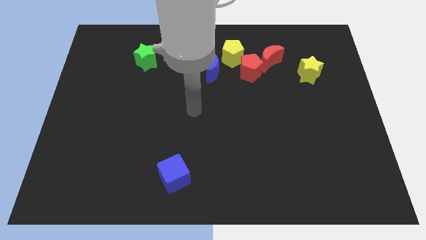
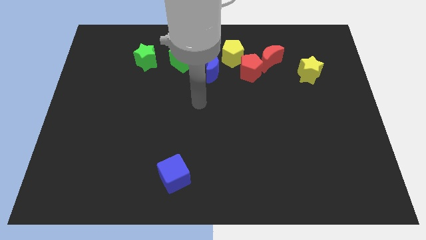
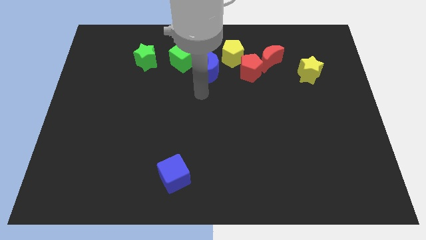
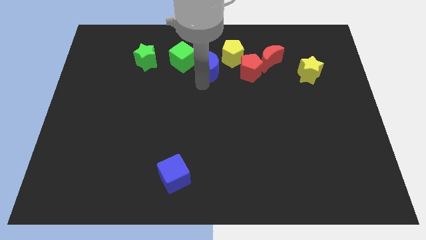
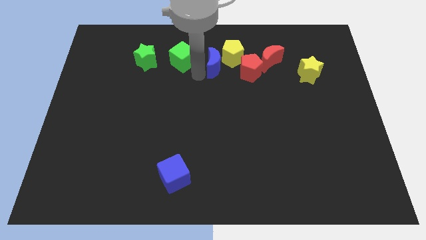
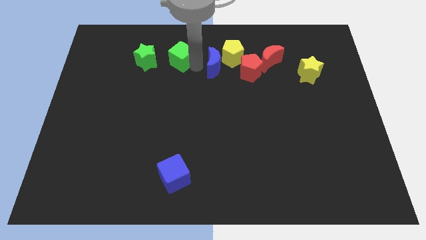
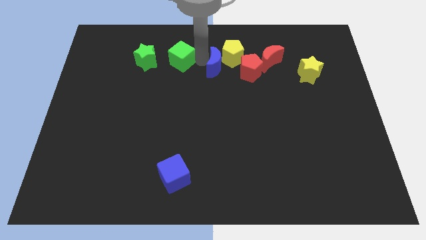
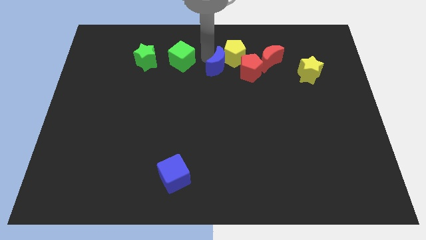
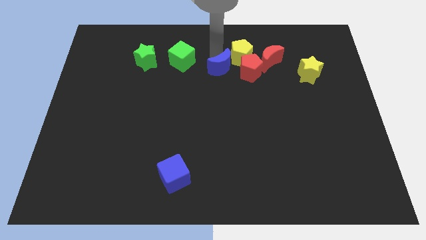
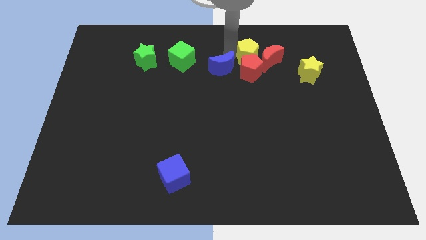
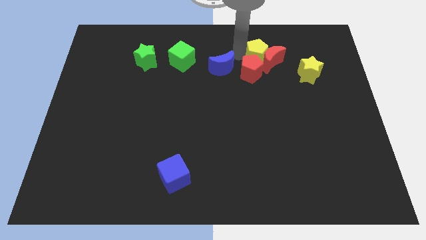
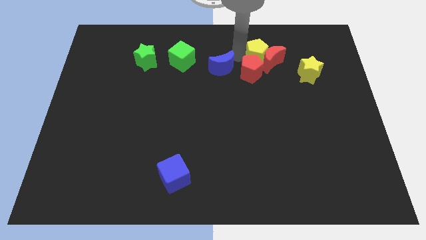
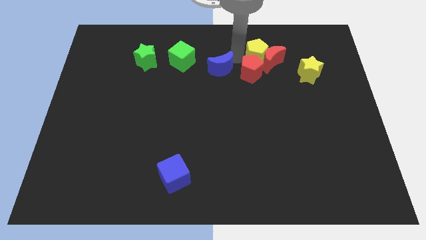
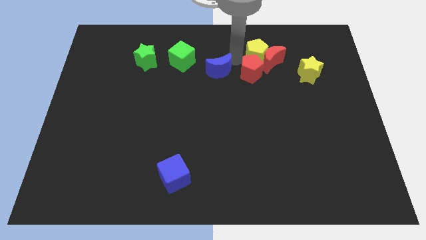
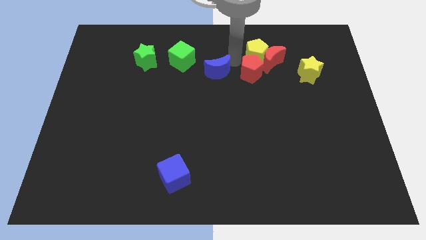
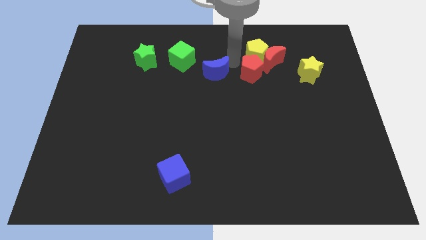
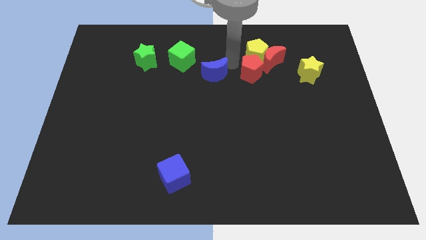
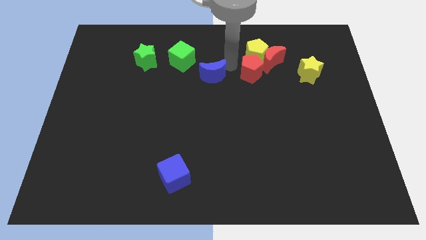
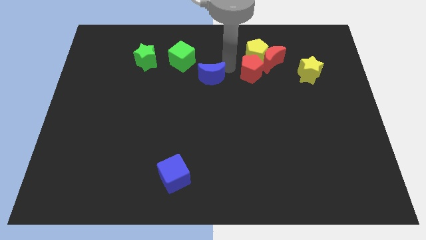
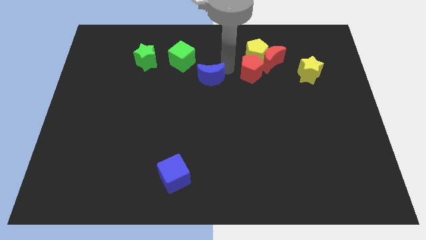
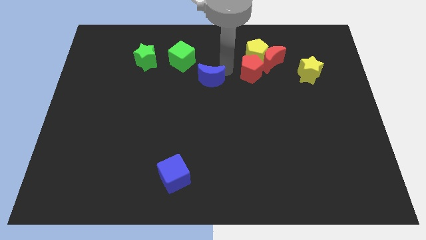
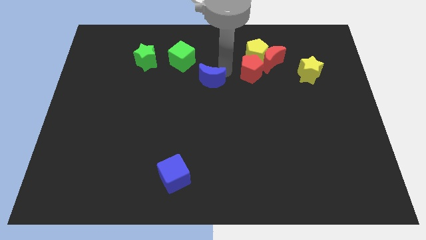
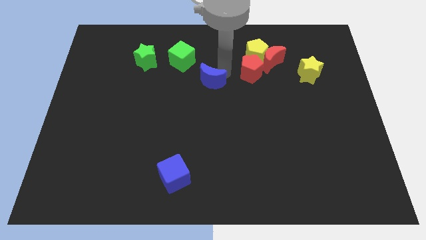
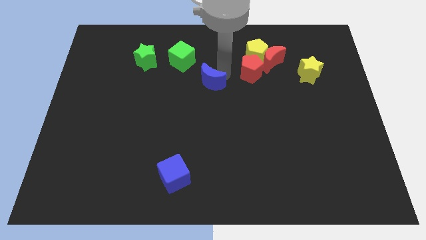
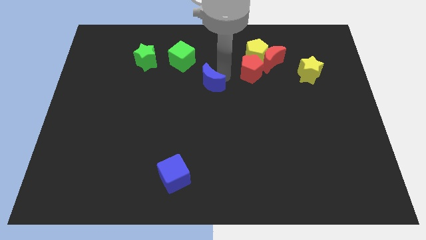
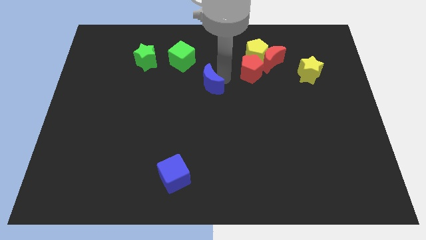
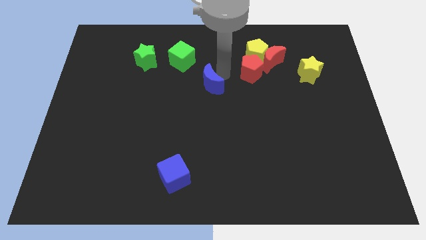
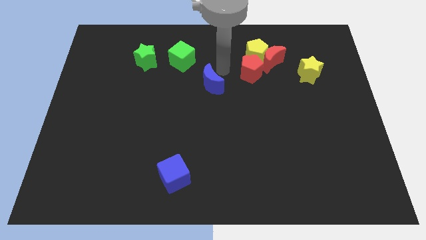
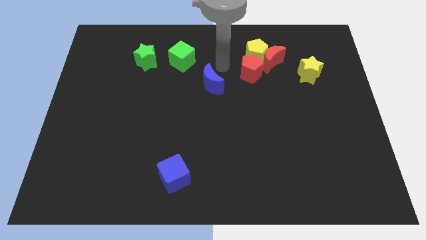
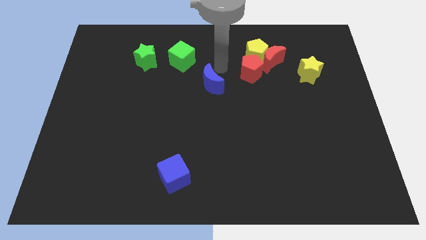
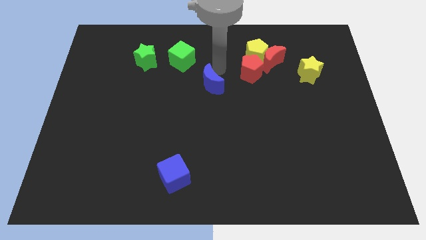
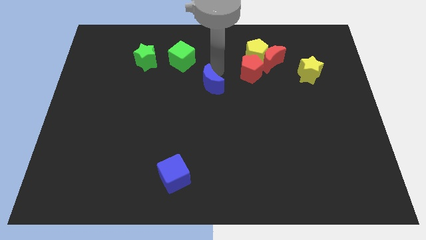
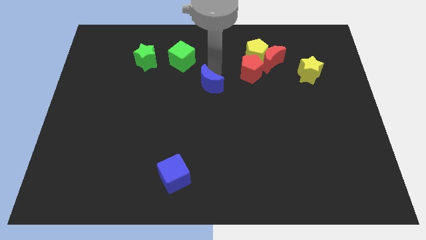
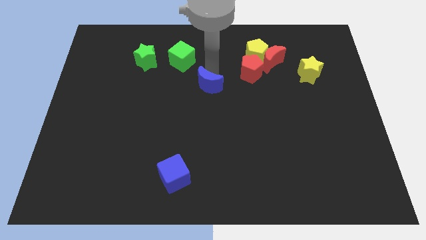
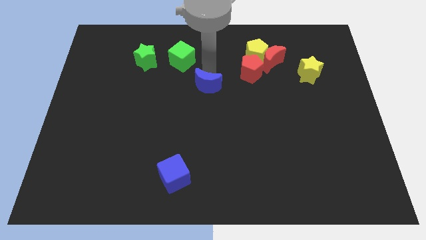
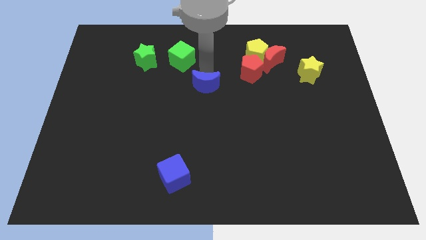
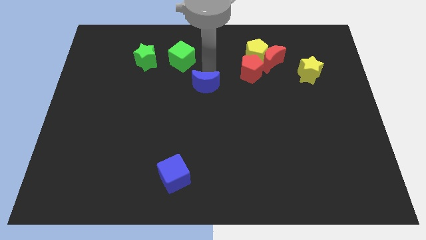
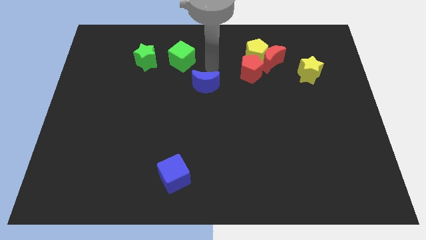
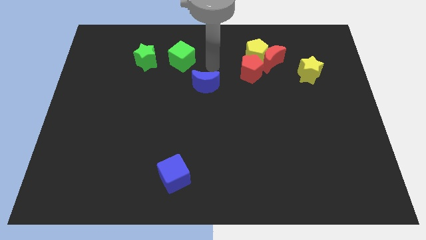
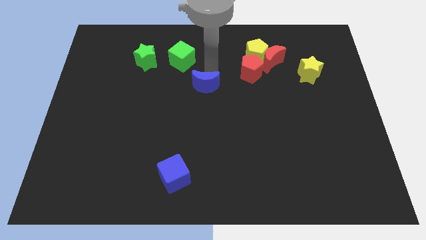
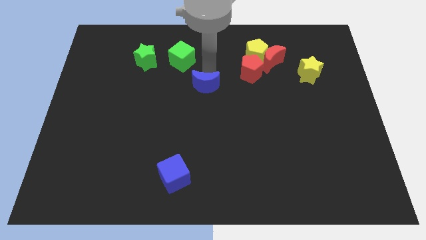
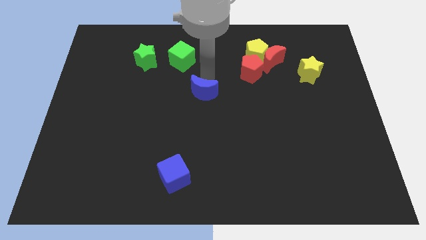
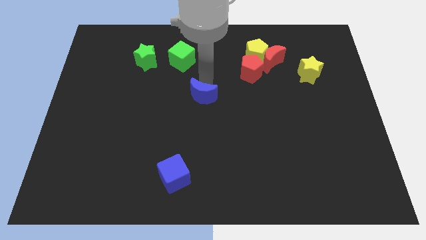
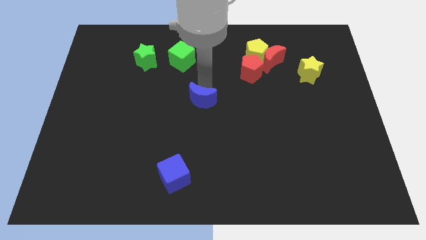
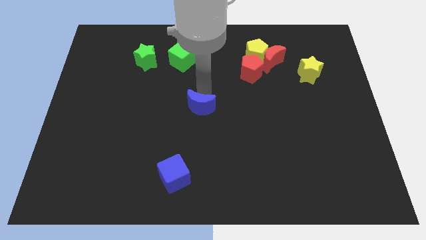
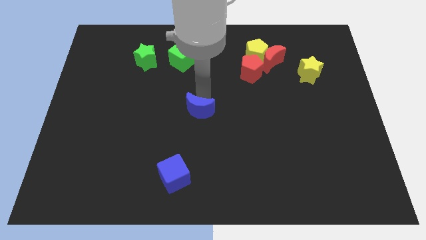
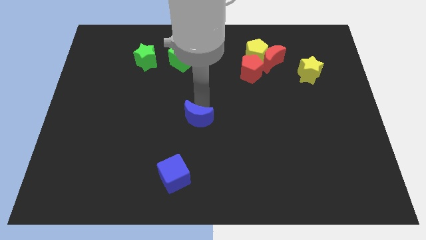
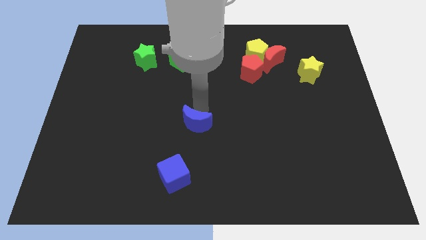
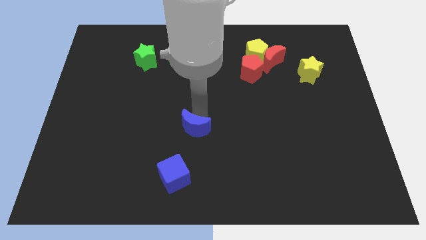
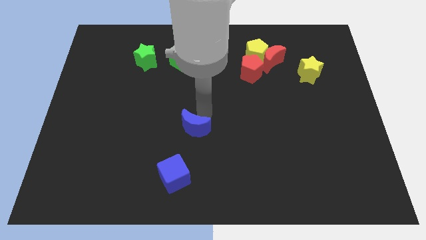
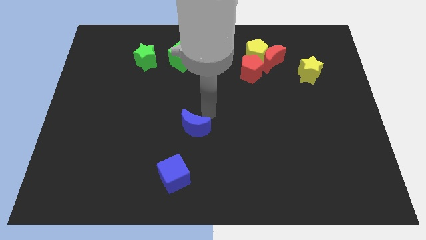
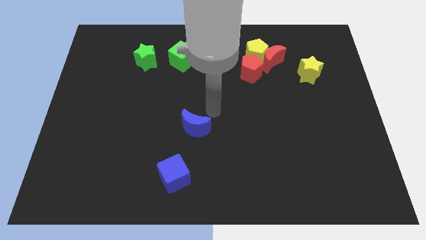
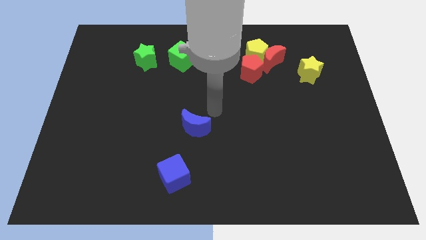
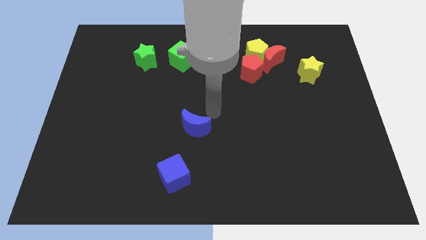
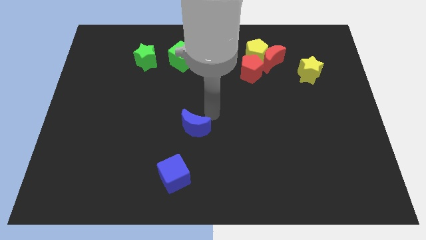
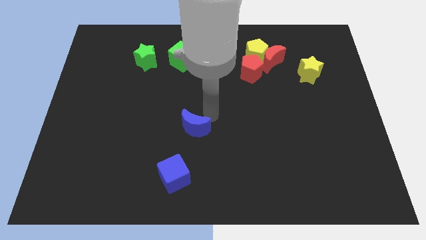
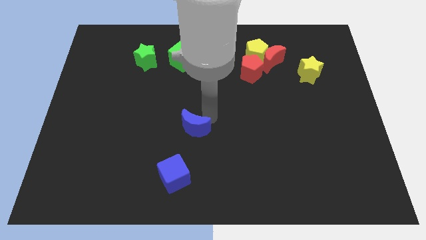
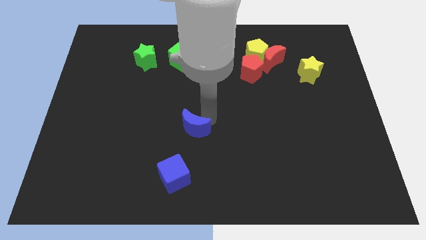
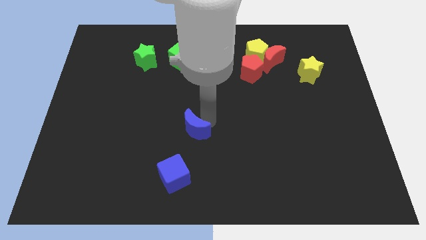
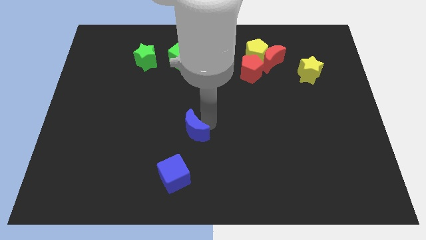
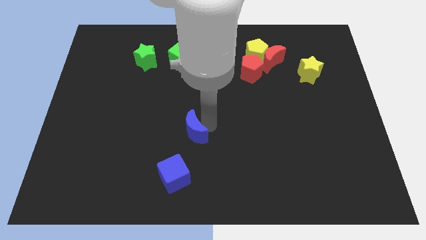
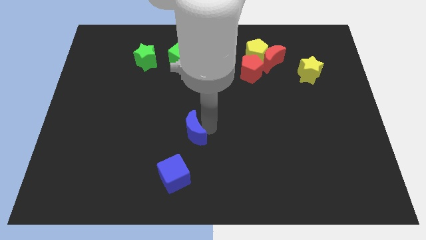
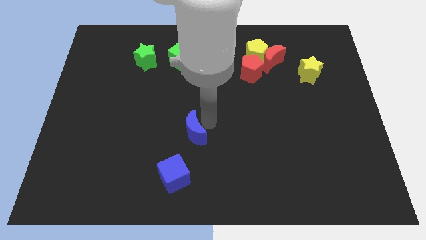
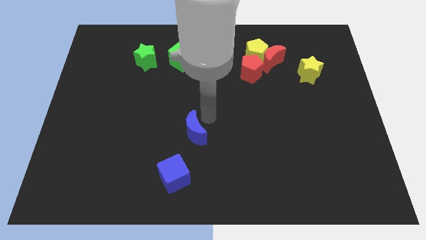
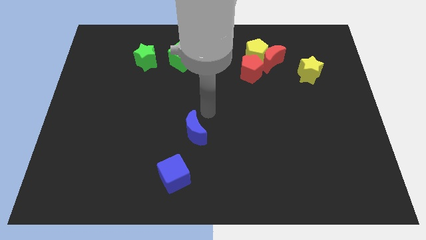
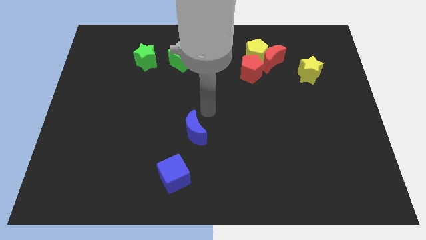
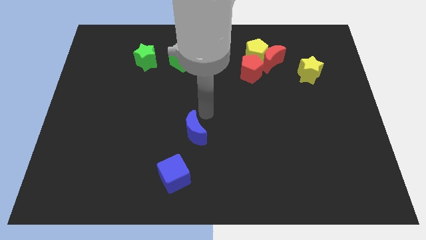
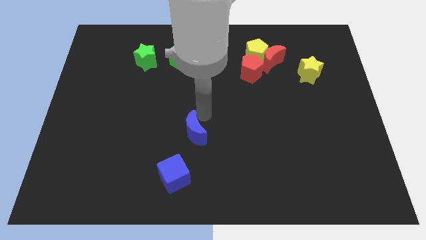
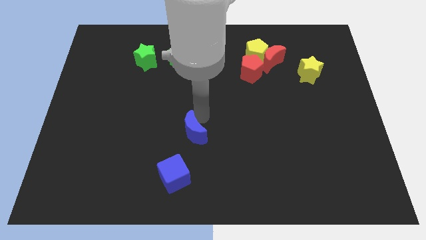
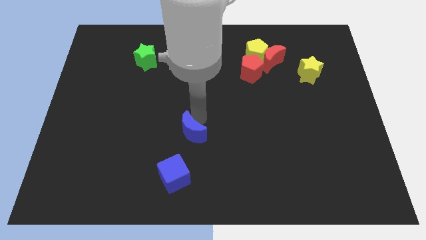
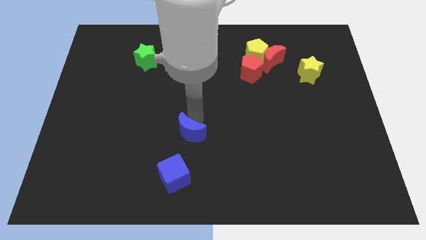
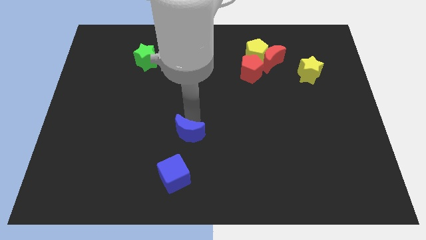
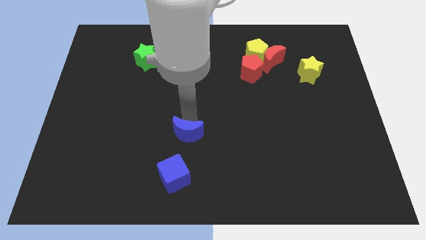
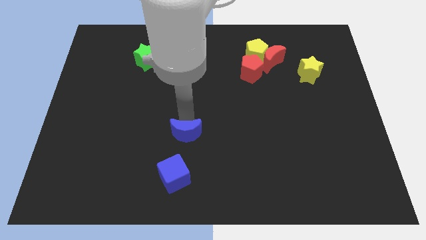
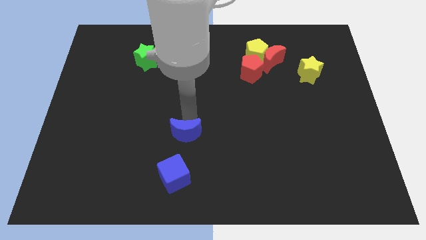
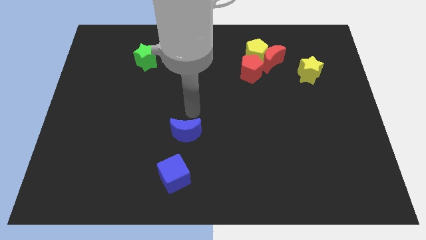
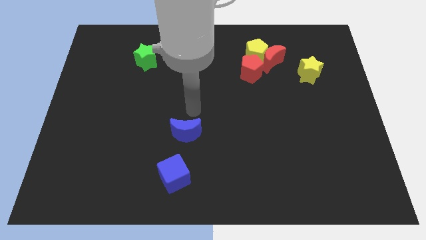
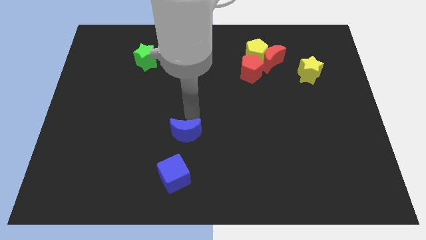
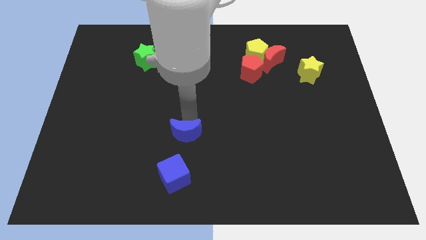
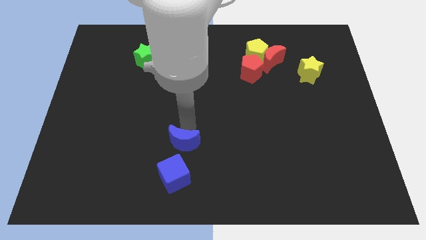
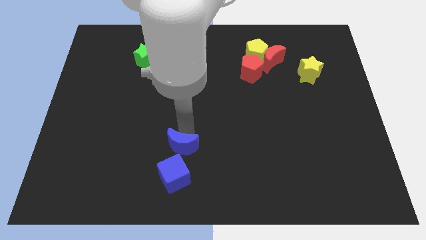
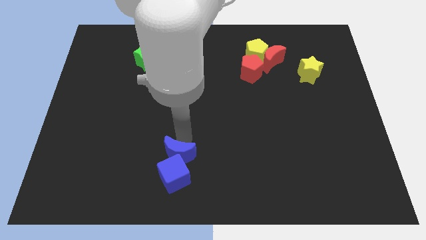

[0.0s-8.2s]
move the blue moon close to the blue cube
